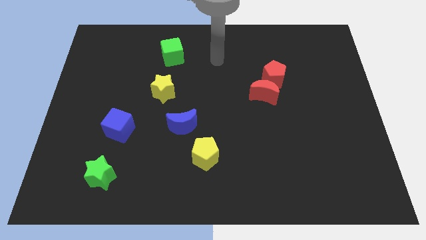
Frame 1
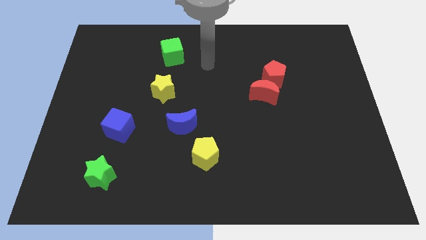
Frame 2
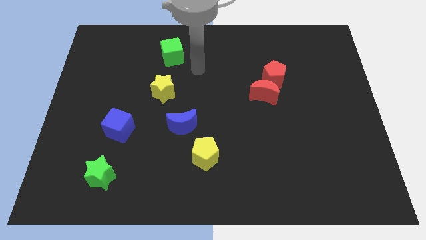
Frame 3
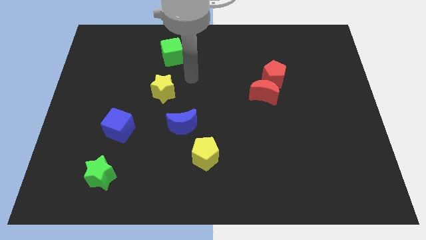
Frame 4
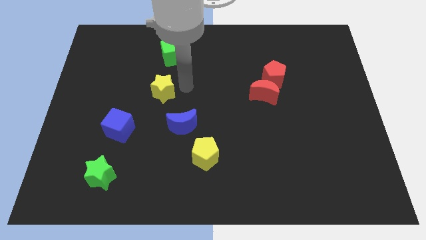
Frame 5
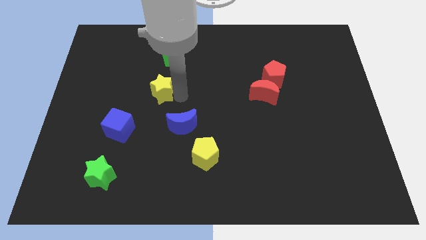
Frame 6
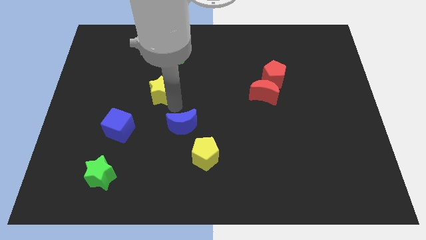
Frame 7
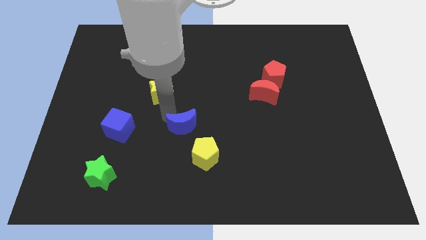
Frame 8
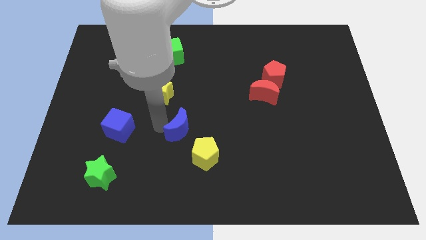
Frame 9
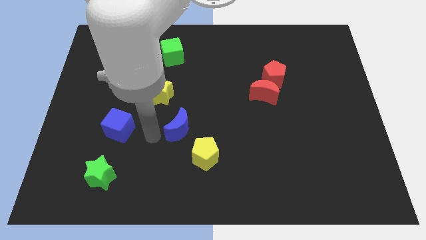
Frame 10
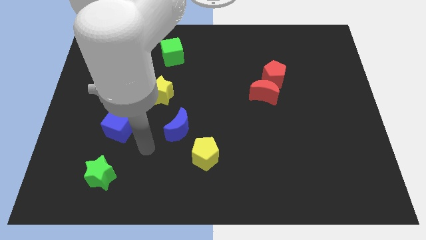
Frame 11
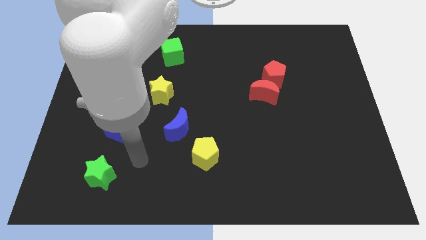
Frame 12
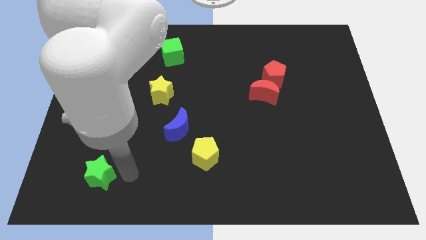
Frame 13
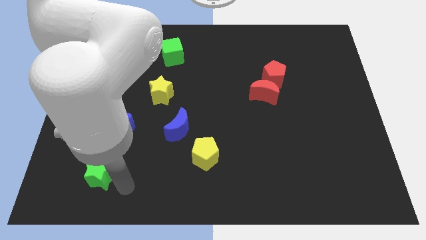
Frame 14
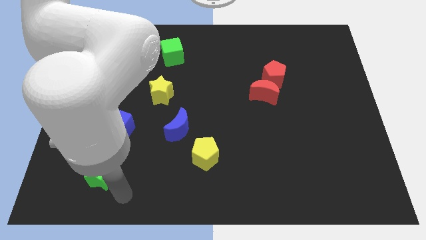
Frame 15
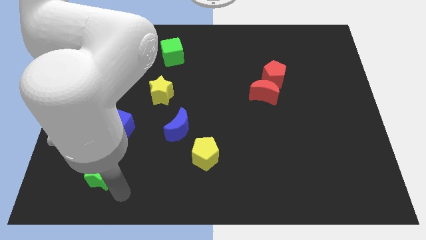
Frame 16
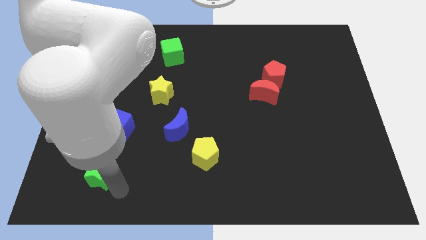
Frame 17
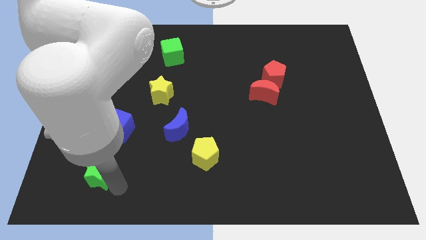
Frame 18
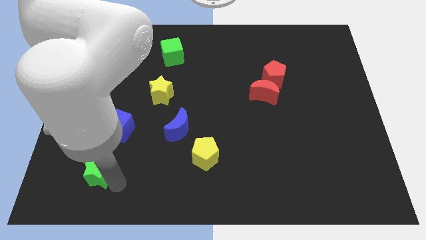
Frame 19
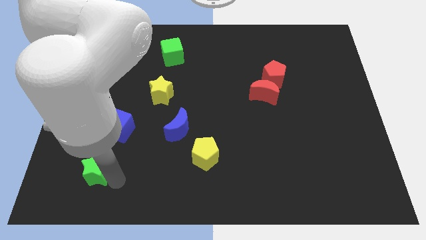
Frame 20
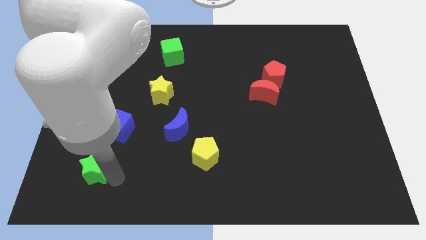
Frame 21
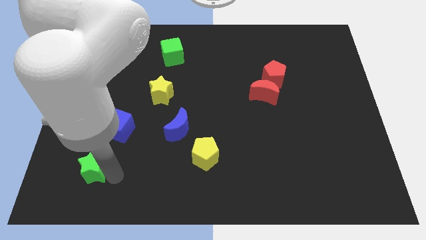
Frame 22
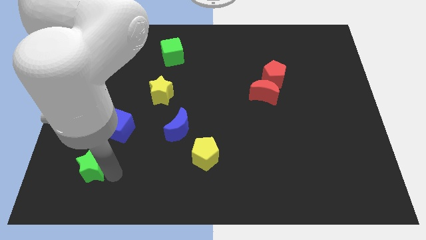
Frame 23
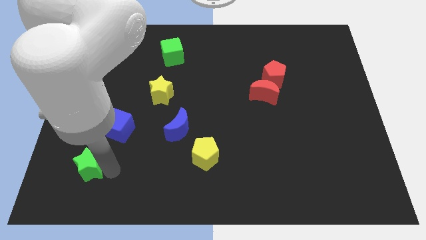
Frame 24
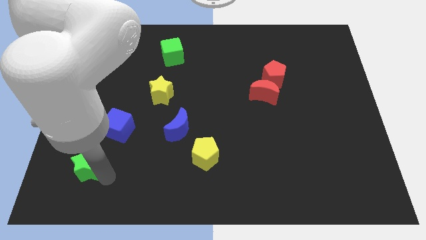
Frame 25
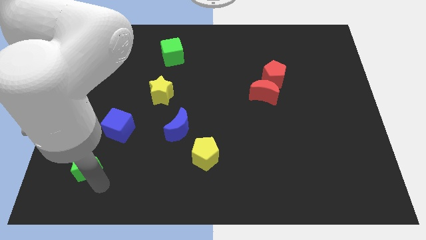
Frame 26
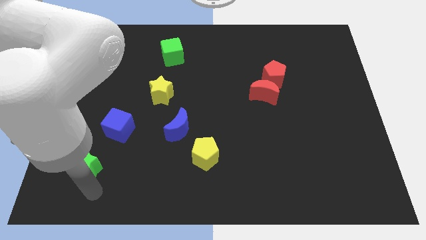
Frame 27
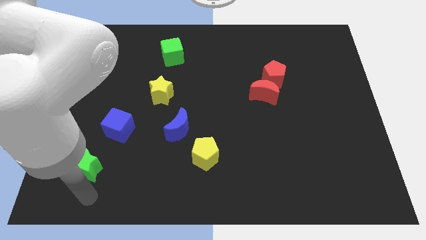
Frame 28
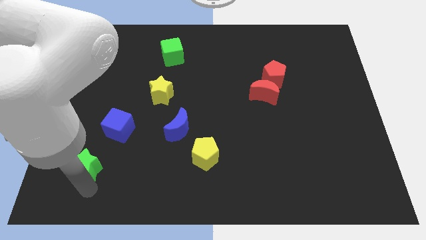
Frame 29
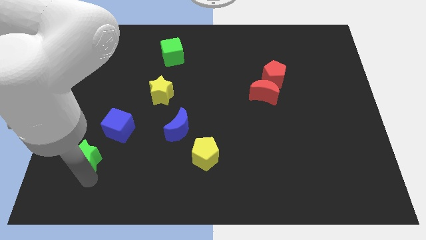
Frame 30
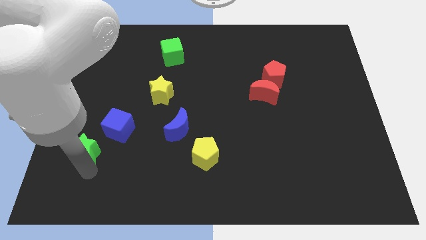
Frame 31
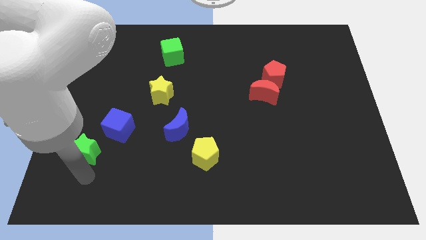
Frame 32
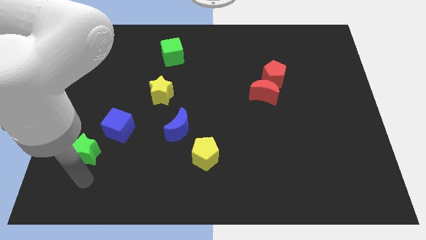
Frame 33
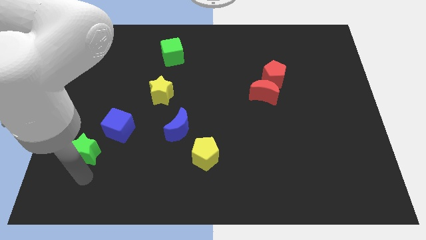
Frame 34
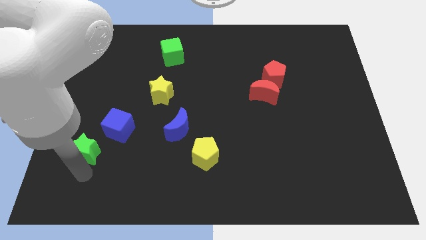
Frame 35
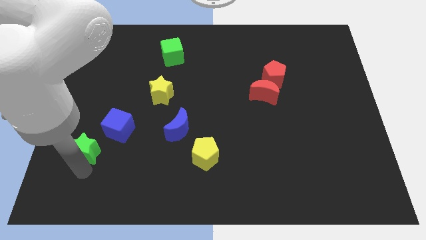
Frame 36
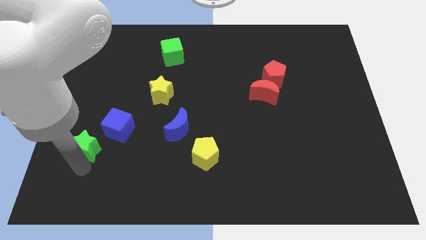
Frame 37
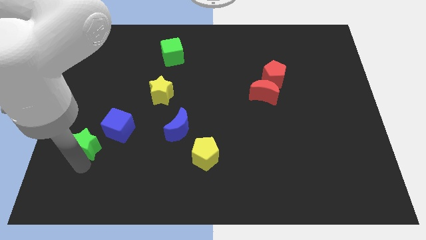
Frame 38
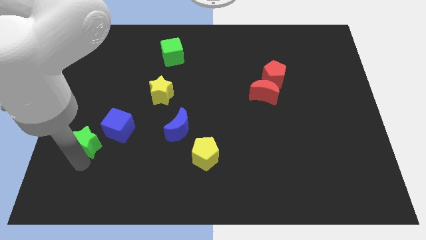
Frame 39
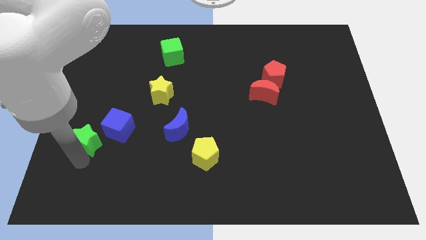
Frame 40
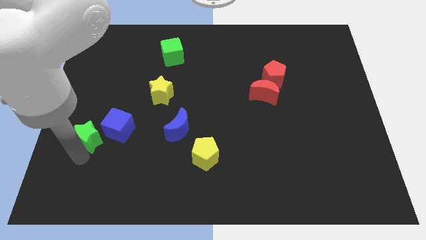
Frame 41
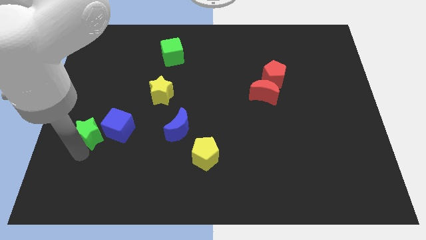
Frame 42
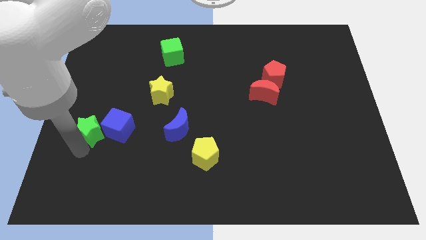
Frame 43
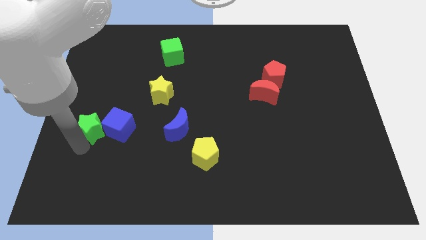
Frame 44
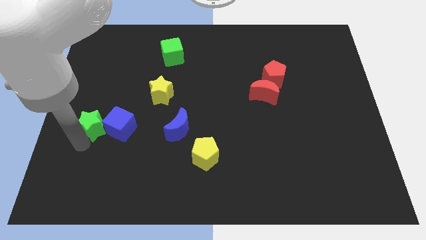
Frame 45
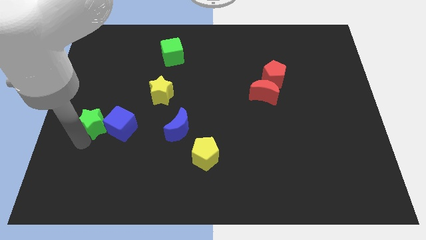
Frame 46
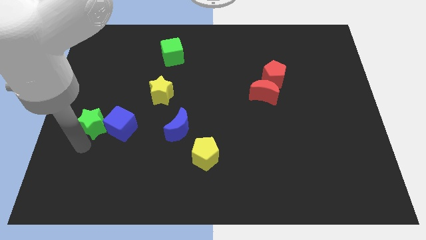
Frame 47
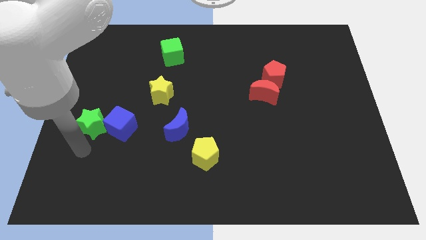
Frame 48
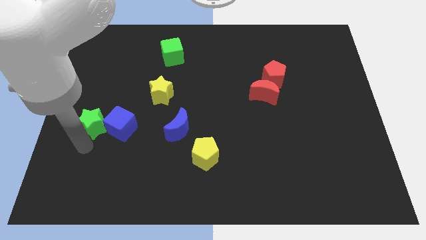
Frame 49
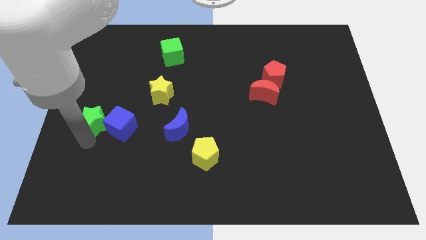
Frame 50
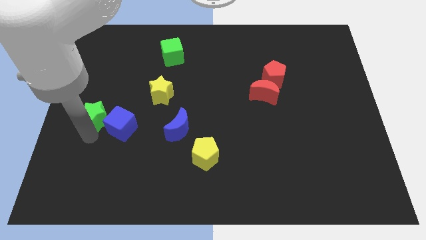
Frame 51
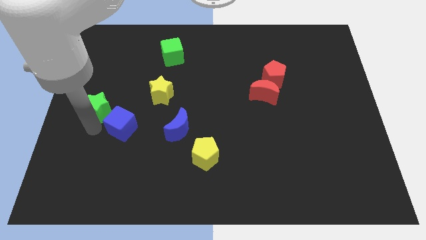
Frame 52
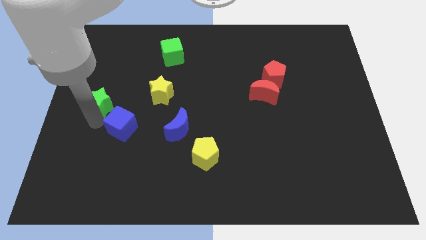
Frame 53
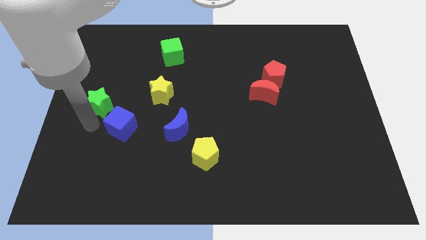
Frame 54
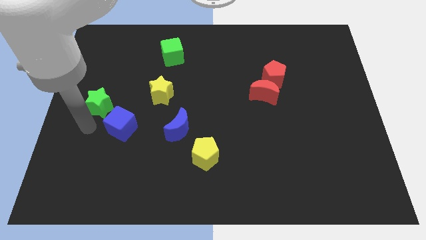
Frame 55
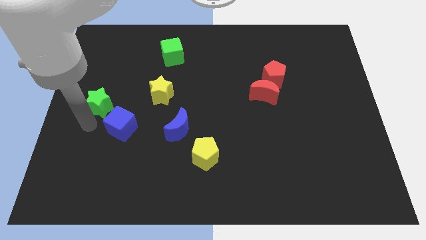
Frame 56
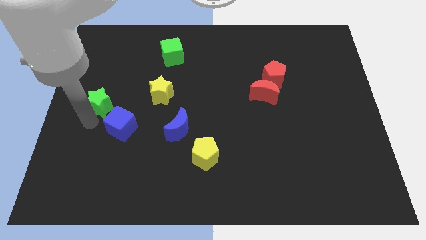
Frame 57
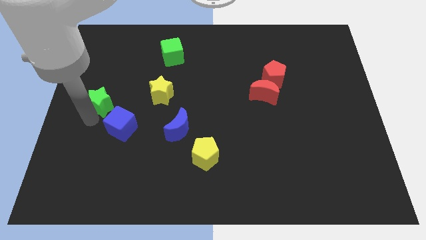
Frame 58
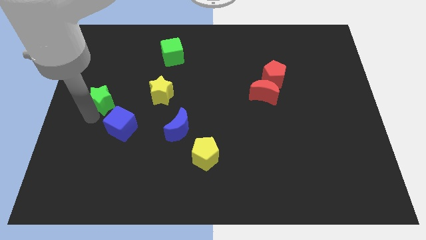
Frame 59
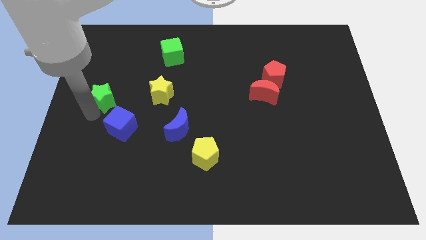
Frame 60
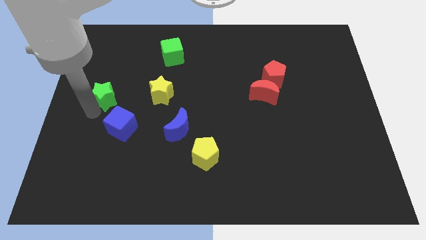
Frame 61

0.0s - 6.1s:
move the green star upwards

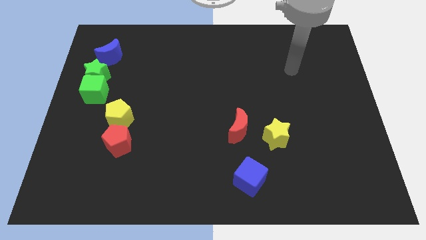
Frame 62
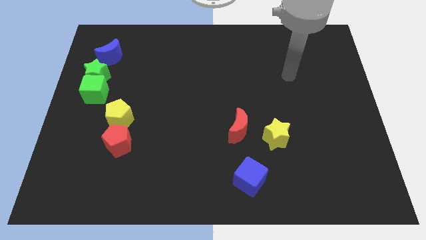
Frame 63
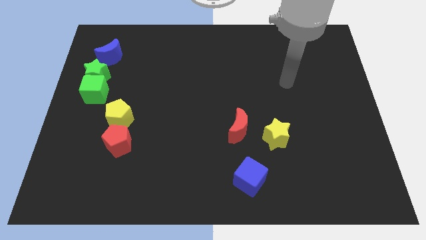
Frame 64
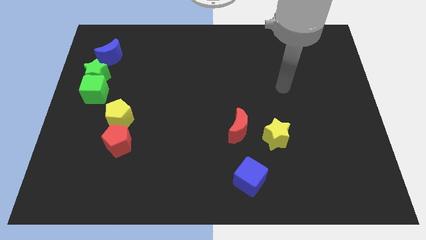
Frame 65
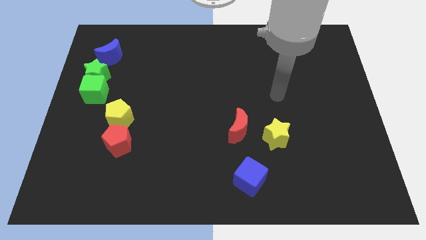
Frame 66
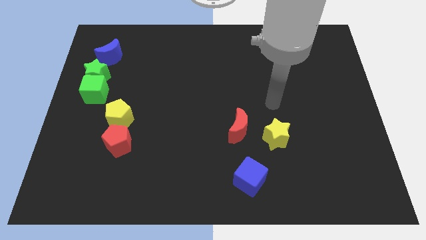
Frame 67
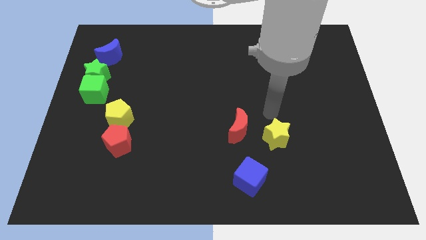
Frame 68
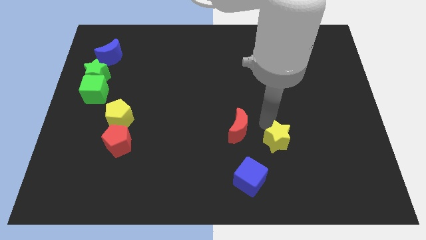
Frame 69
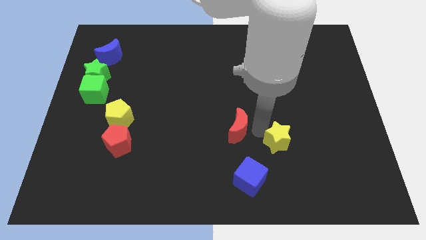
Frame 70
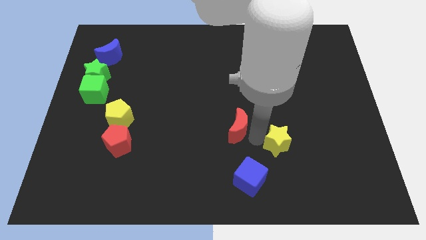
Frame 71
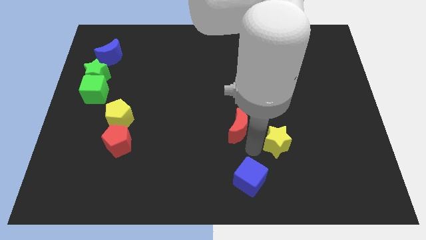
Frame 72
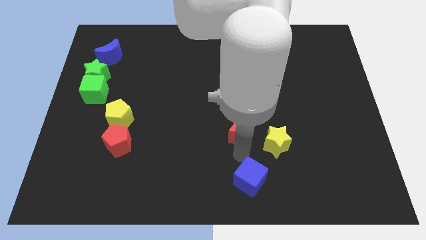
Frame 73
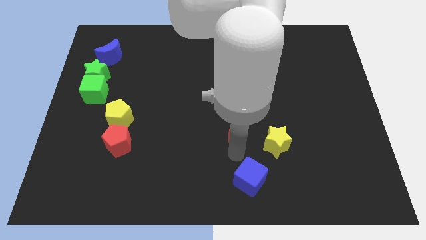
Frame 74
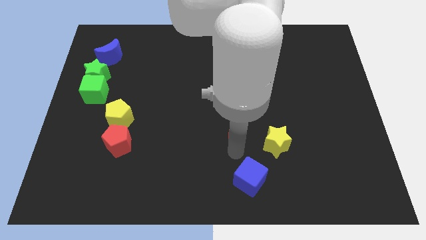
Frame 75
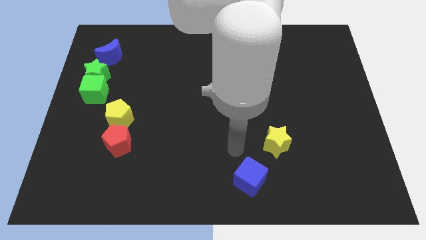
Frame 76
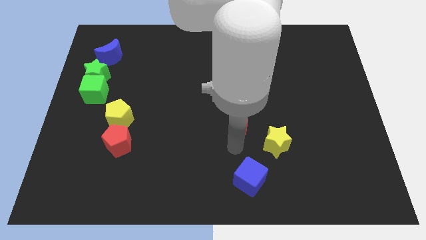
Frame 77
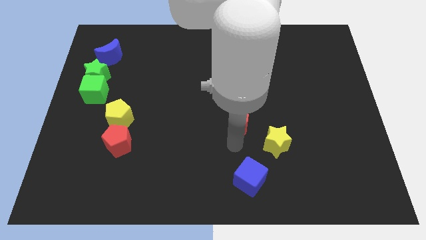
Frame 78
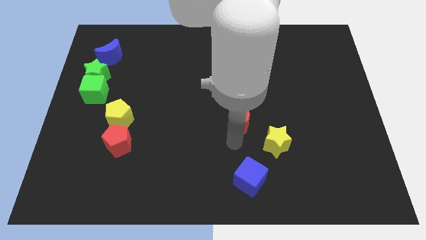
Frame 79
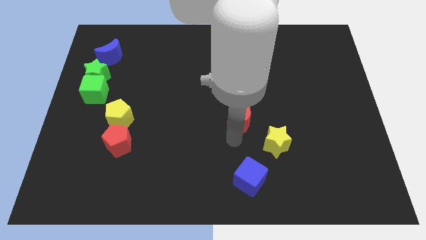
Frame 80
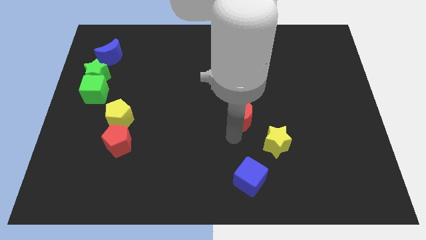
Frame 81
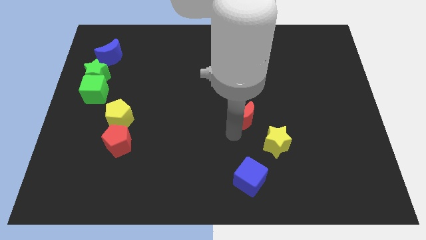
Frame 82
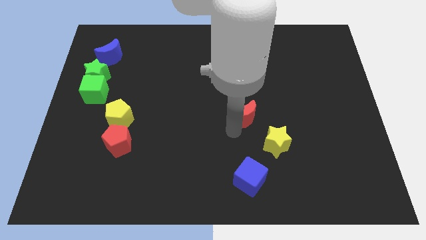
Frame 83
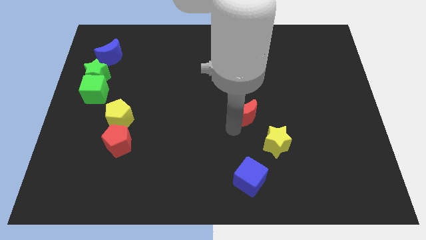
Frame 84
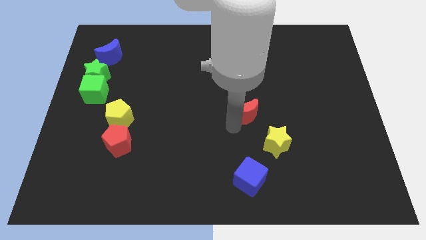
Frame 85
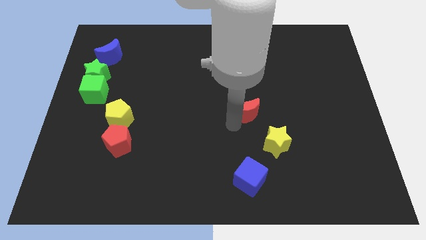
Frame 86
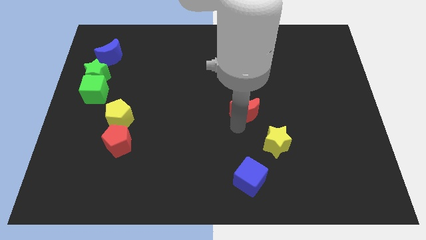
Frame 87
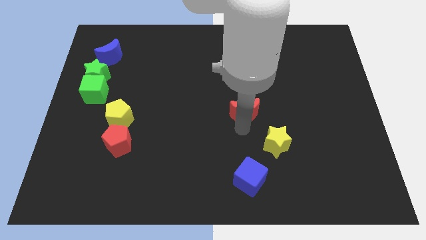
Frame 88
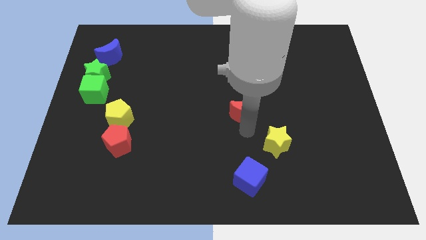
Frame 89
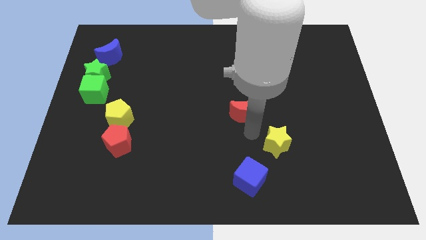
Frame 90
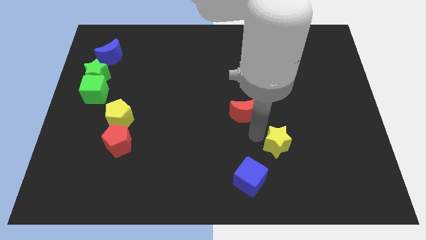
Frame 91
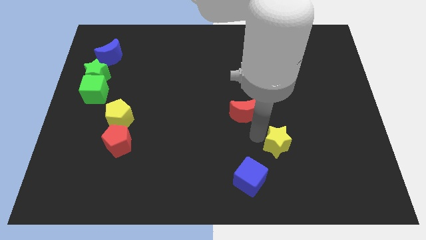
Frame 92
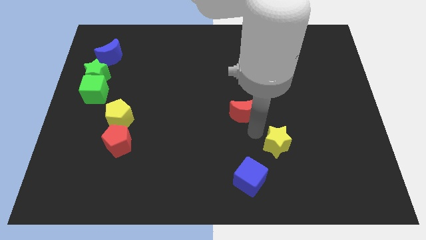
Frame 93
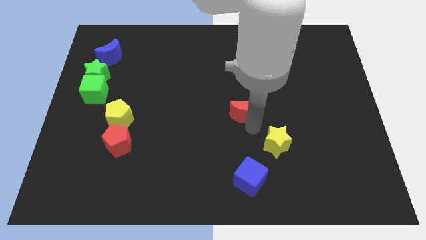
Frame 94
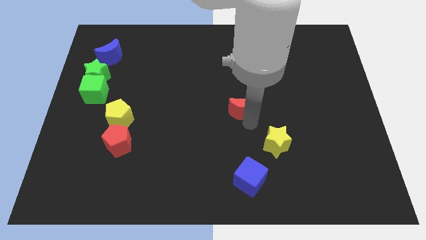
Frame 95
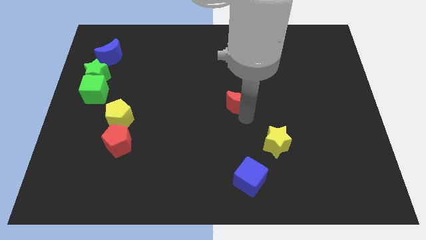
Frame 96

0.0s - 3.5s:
slide the red moon a little up
